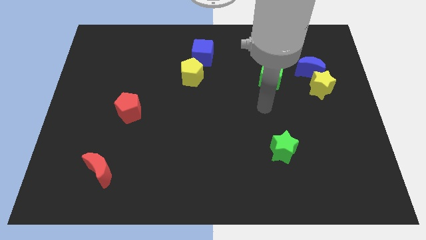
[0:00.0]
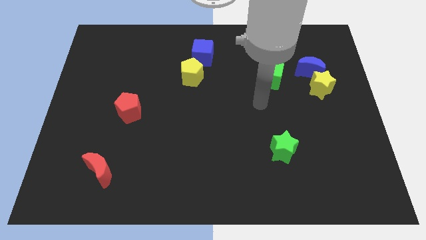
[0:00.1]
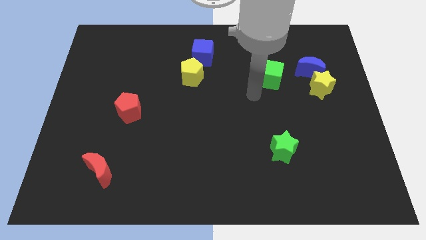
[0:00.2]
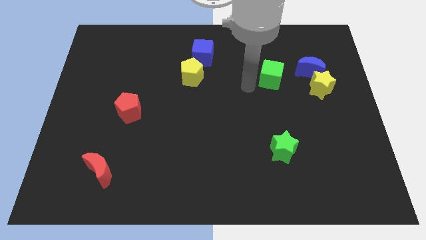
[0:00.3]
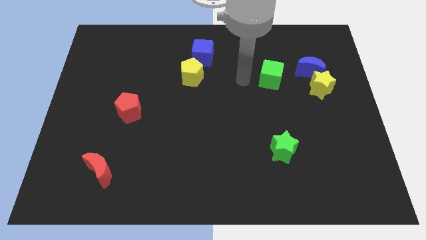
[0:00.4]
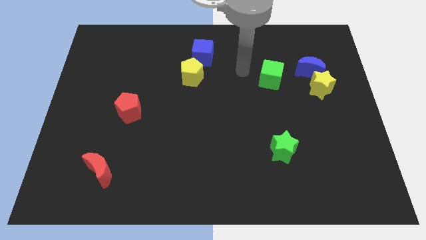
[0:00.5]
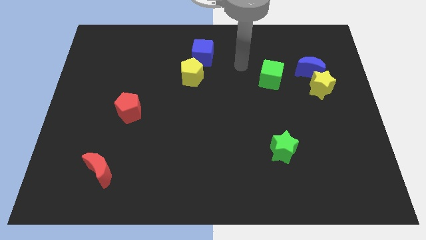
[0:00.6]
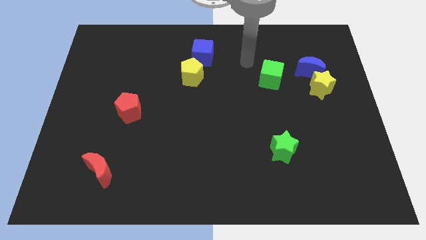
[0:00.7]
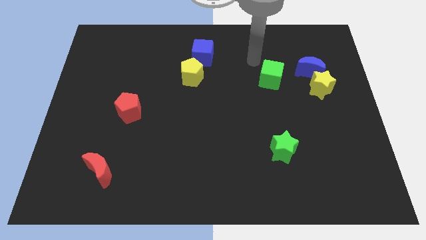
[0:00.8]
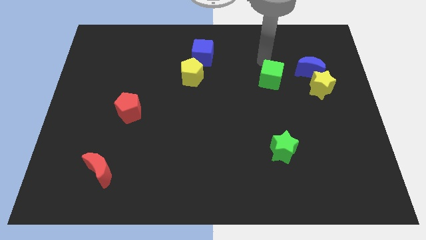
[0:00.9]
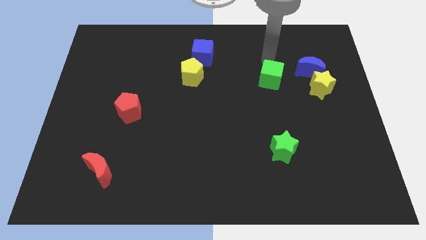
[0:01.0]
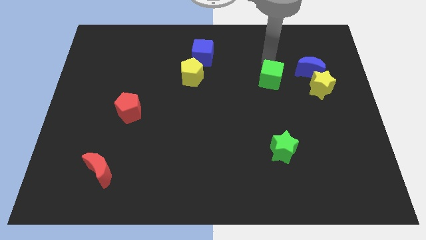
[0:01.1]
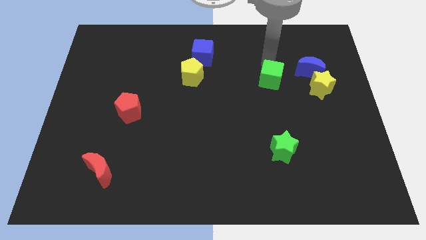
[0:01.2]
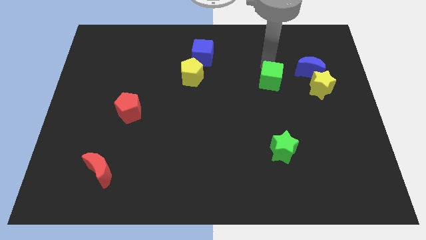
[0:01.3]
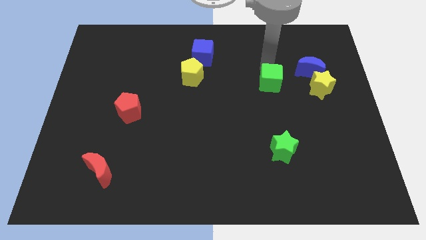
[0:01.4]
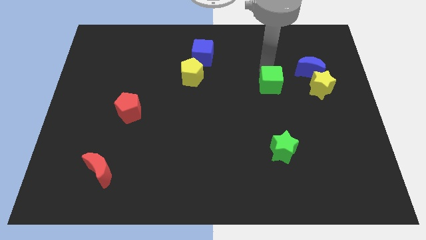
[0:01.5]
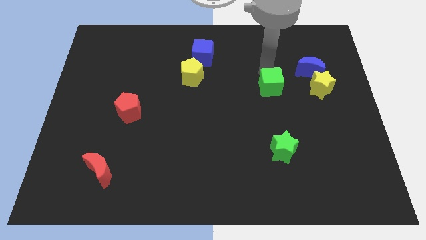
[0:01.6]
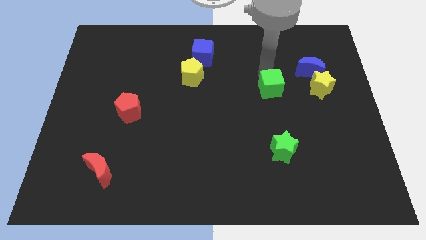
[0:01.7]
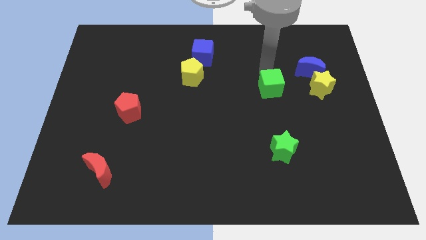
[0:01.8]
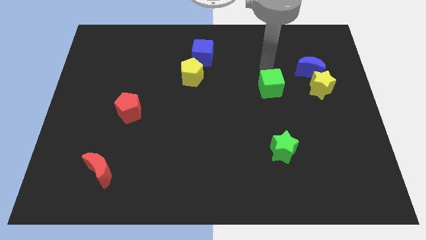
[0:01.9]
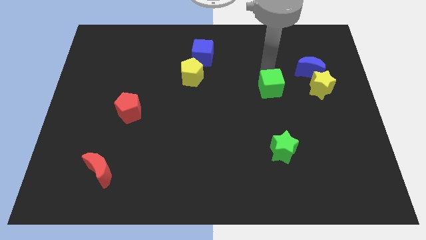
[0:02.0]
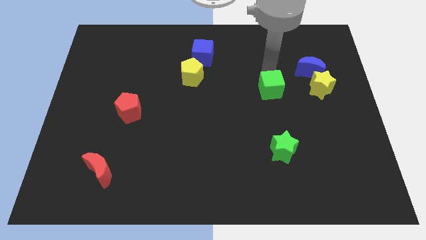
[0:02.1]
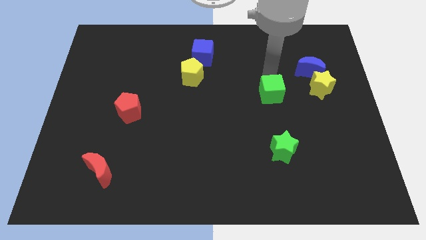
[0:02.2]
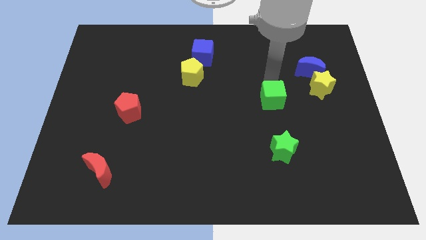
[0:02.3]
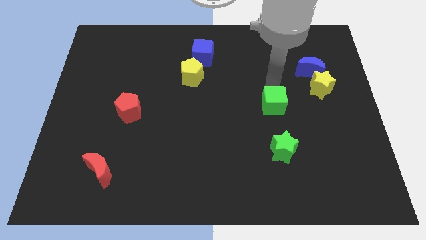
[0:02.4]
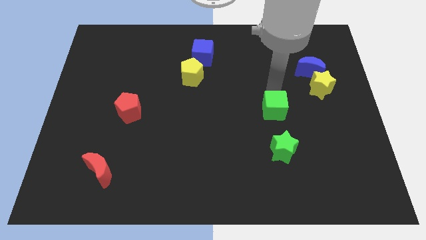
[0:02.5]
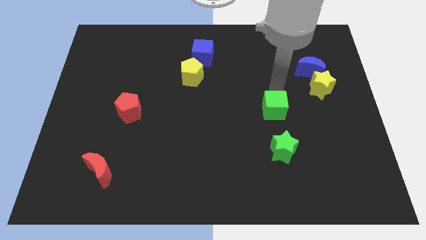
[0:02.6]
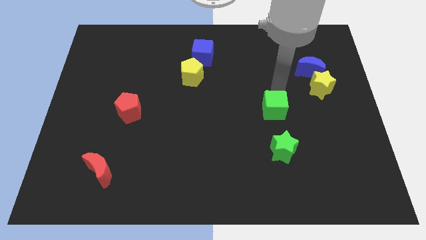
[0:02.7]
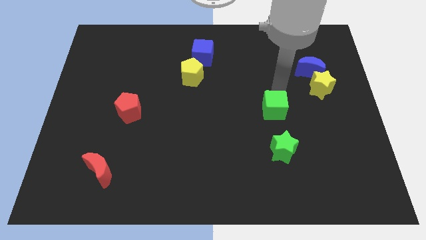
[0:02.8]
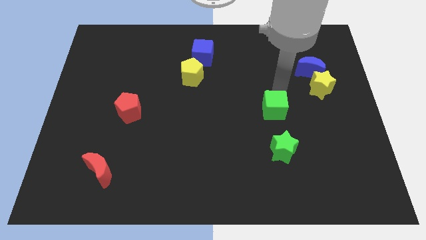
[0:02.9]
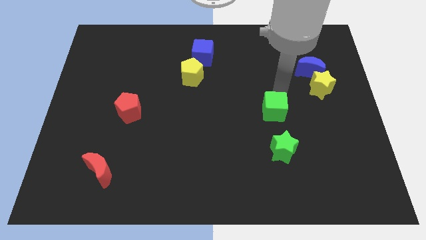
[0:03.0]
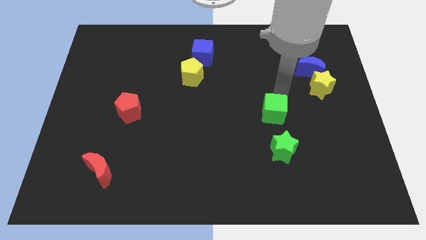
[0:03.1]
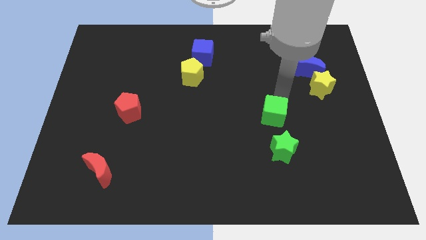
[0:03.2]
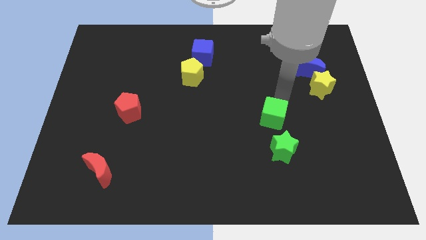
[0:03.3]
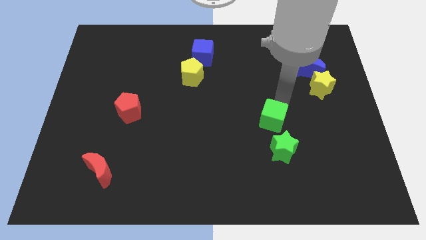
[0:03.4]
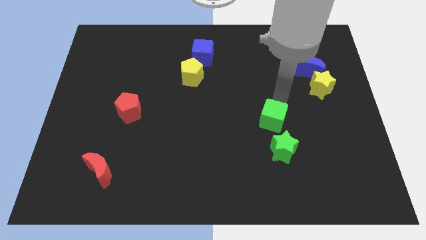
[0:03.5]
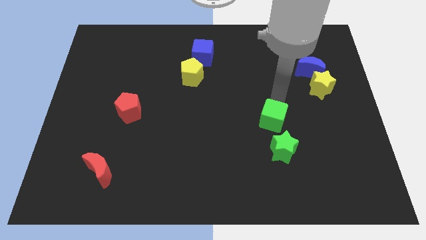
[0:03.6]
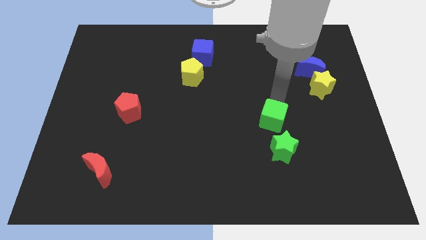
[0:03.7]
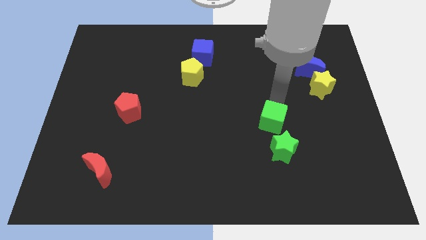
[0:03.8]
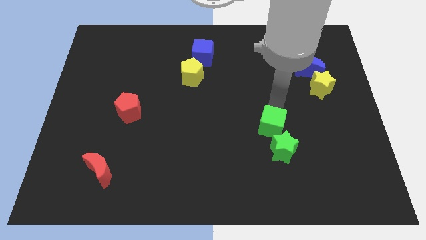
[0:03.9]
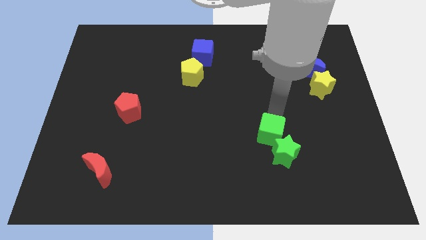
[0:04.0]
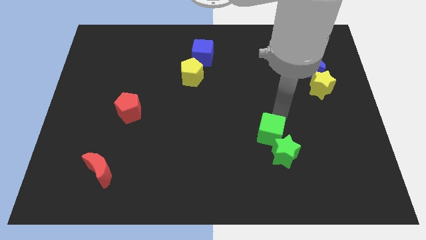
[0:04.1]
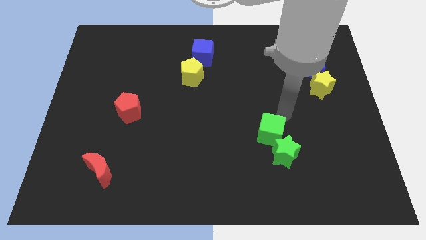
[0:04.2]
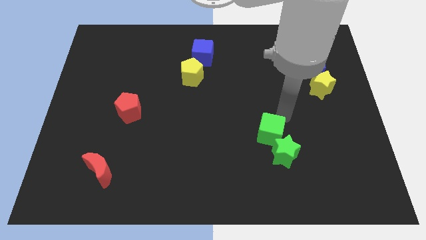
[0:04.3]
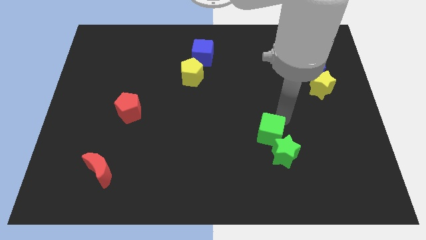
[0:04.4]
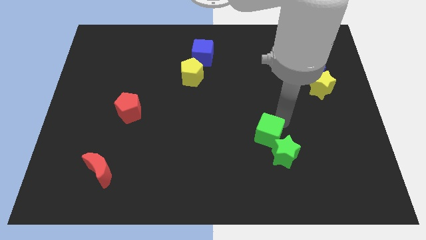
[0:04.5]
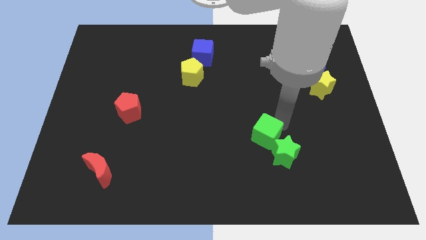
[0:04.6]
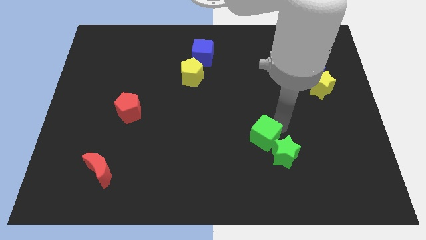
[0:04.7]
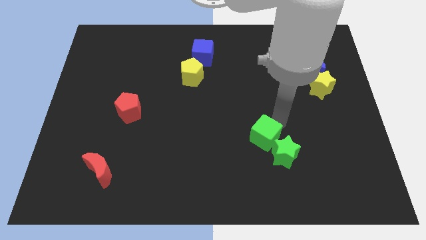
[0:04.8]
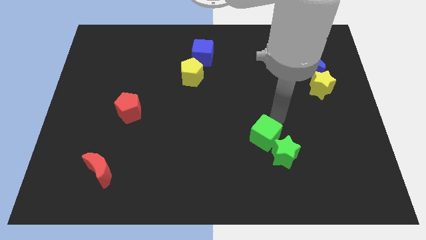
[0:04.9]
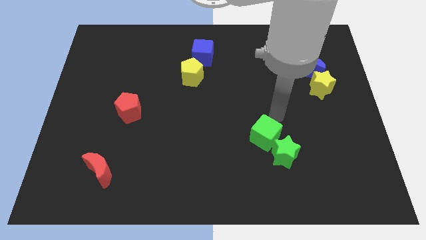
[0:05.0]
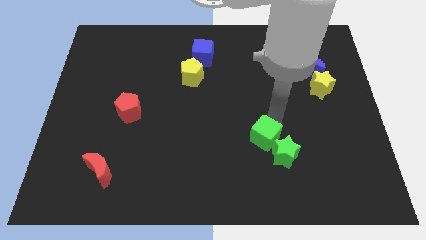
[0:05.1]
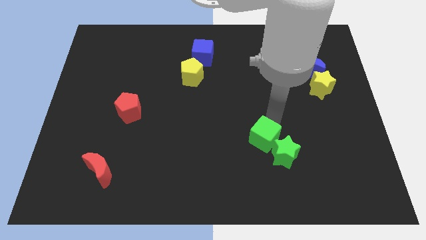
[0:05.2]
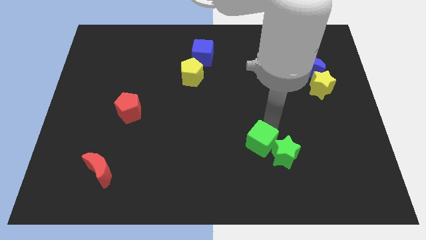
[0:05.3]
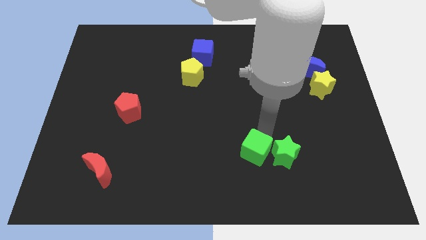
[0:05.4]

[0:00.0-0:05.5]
move the green cube to the bottom left side of the green star

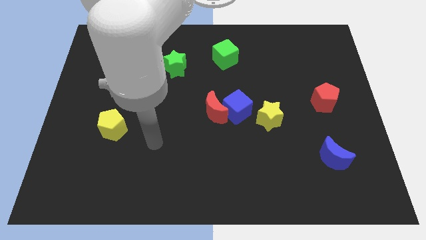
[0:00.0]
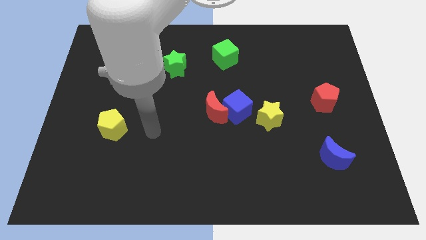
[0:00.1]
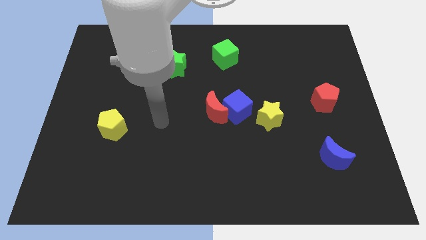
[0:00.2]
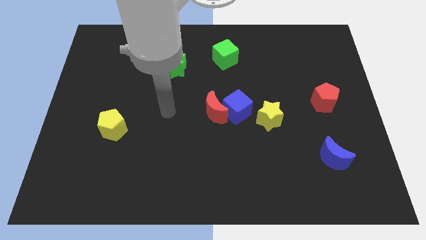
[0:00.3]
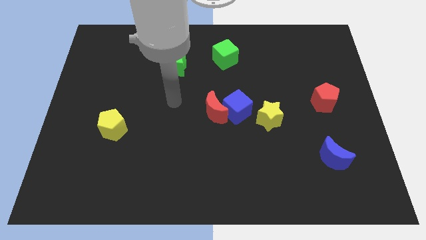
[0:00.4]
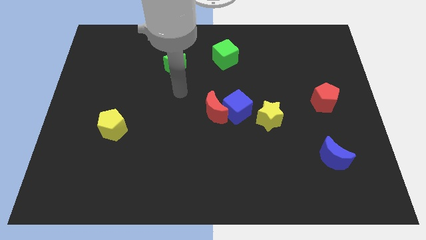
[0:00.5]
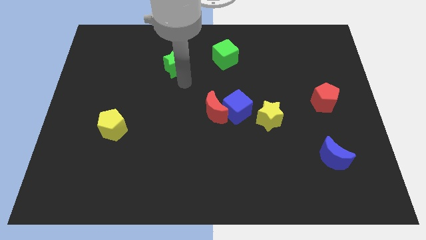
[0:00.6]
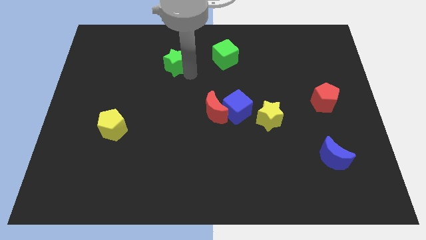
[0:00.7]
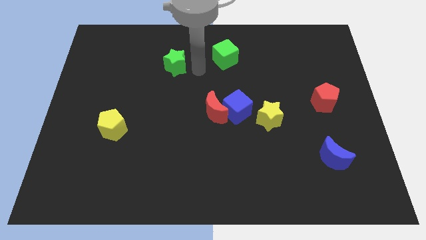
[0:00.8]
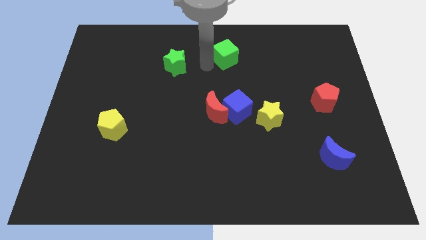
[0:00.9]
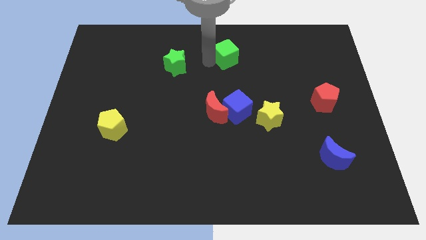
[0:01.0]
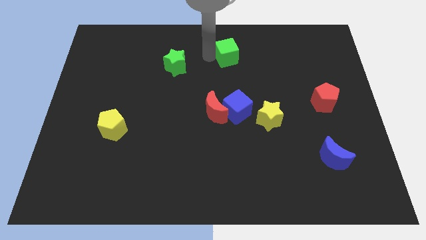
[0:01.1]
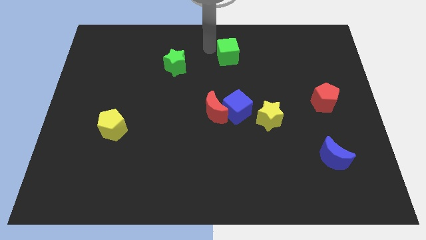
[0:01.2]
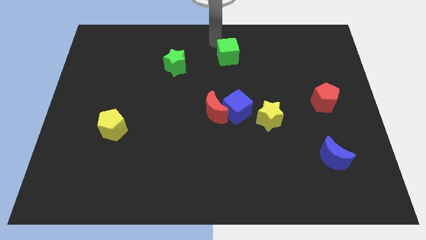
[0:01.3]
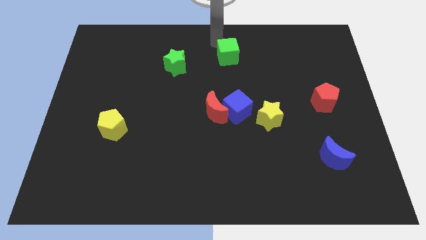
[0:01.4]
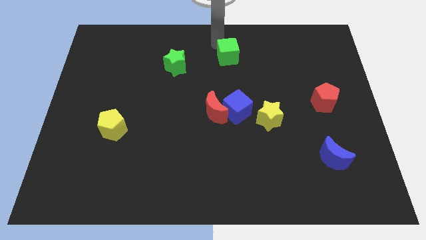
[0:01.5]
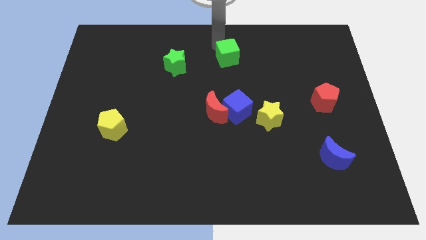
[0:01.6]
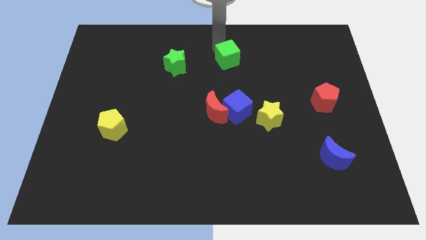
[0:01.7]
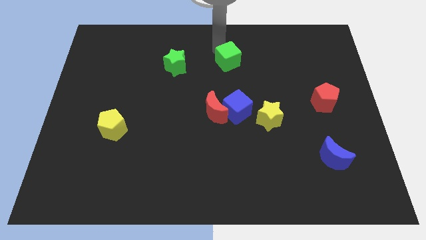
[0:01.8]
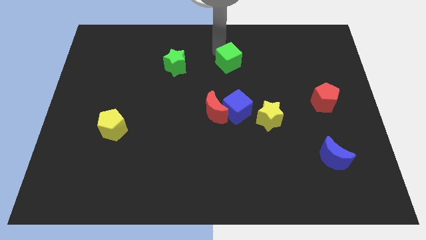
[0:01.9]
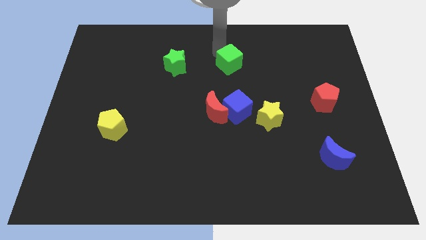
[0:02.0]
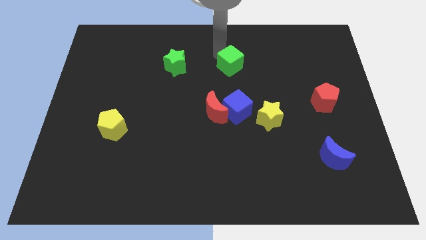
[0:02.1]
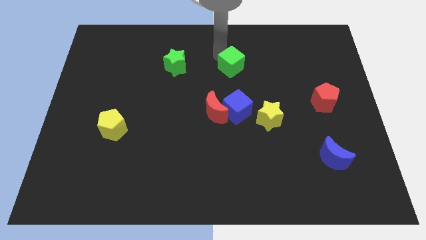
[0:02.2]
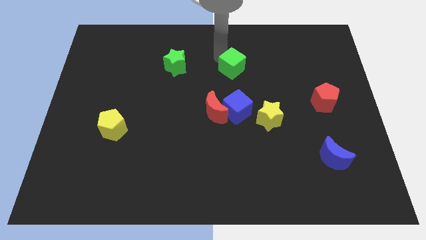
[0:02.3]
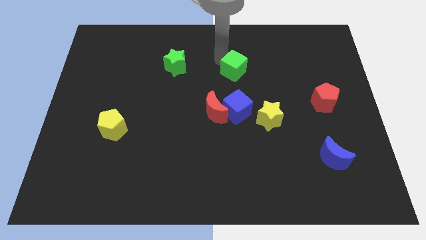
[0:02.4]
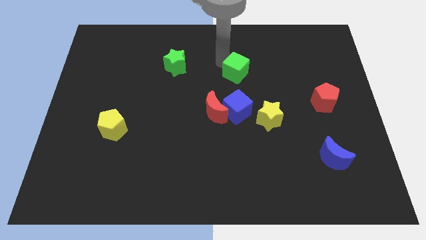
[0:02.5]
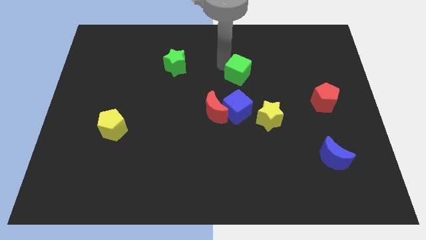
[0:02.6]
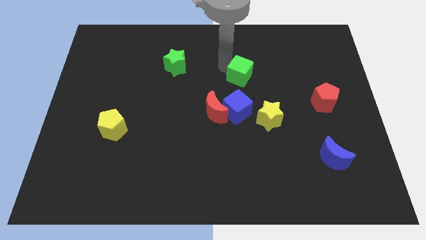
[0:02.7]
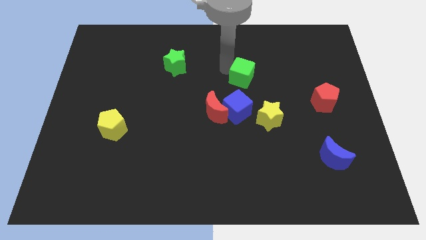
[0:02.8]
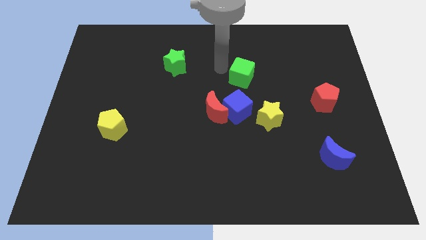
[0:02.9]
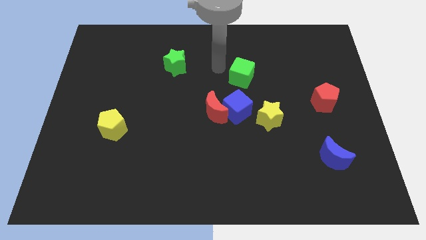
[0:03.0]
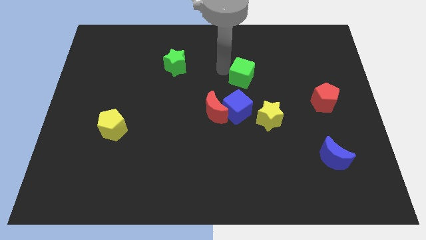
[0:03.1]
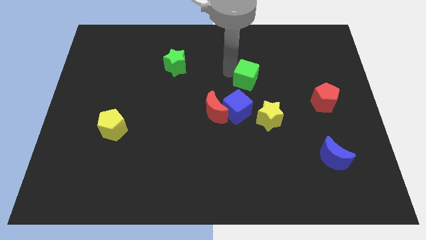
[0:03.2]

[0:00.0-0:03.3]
move the green cube above the yellow star
